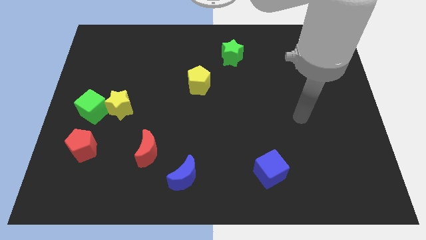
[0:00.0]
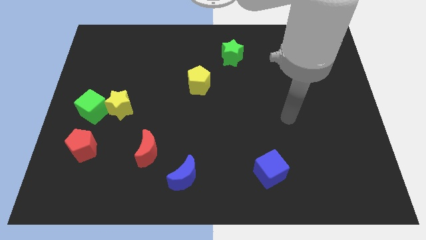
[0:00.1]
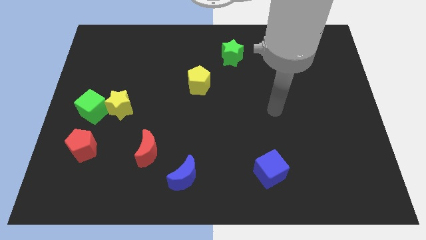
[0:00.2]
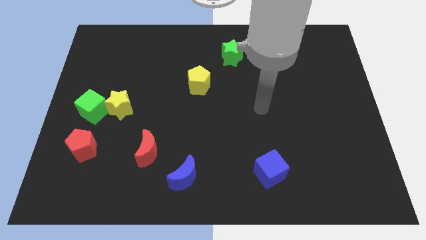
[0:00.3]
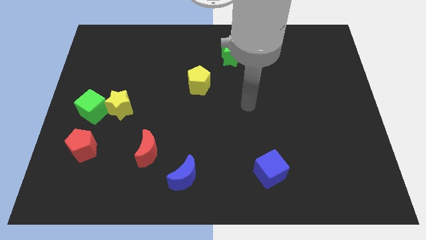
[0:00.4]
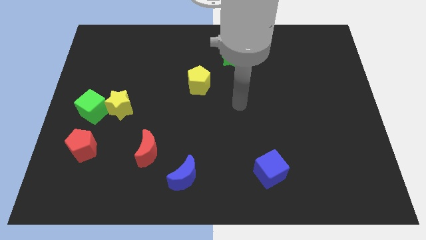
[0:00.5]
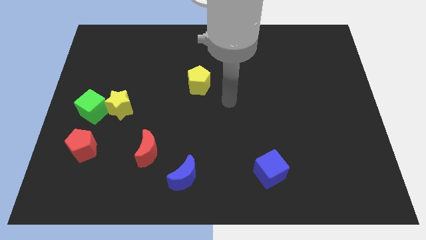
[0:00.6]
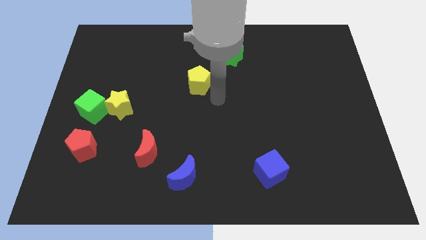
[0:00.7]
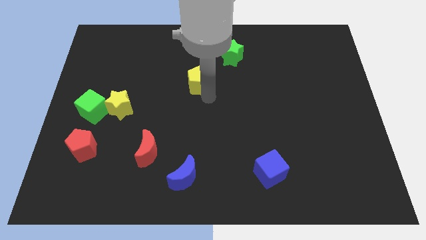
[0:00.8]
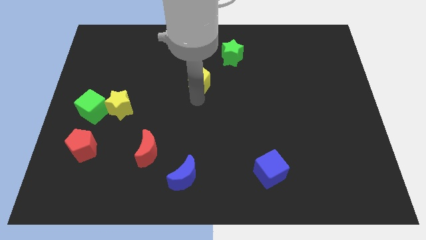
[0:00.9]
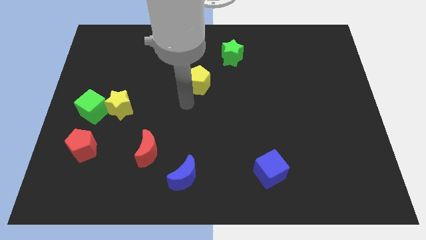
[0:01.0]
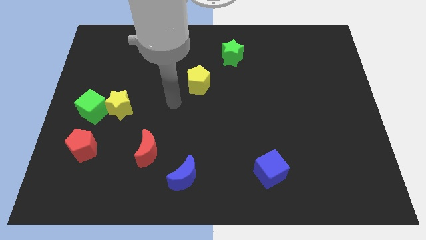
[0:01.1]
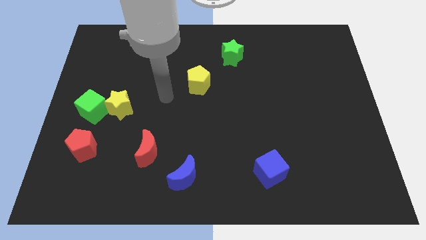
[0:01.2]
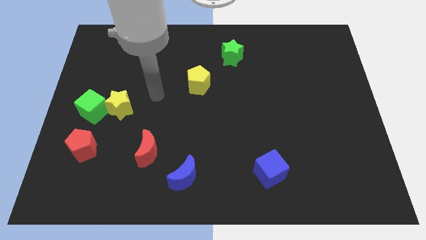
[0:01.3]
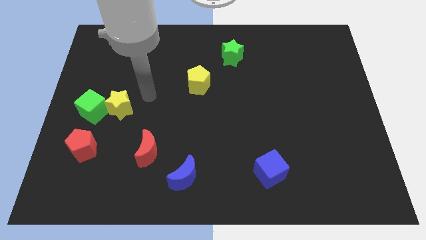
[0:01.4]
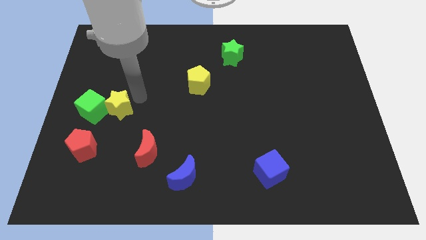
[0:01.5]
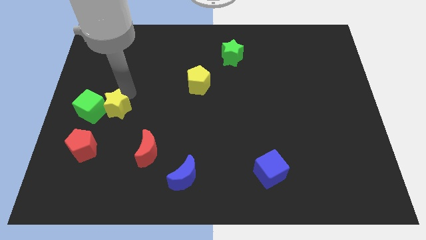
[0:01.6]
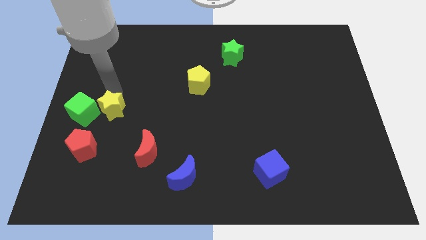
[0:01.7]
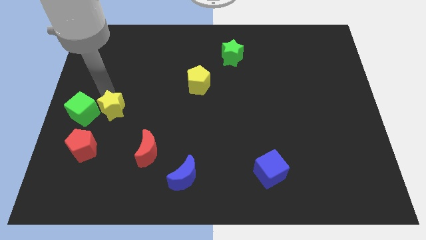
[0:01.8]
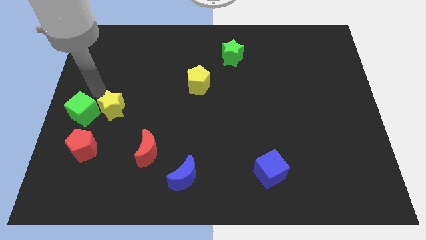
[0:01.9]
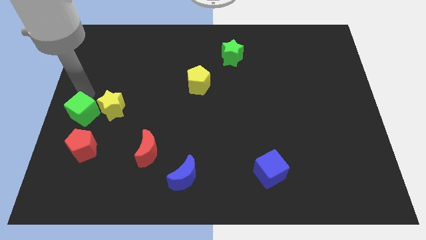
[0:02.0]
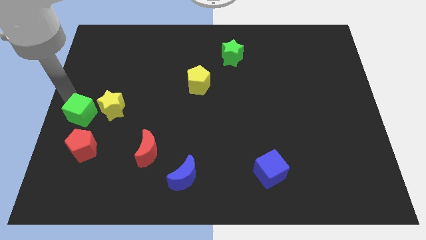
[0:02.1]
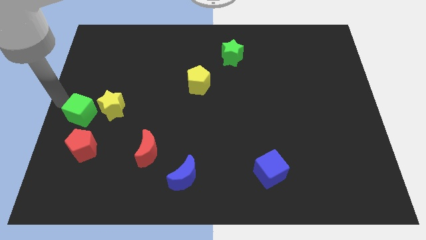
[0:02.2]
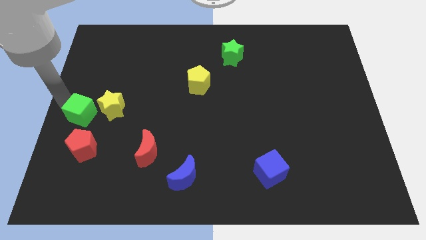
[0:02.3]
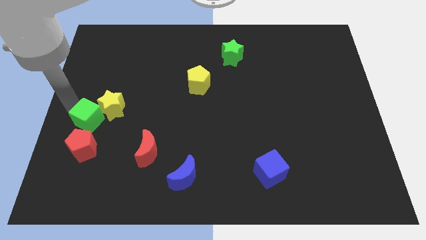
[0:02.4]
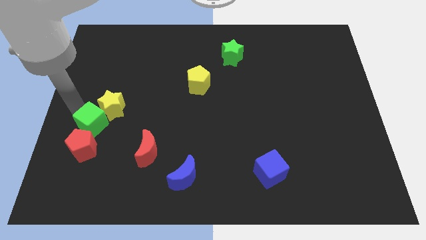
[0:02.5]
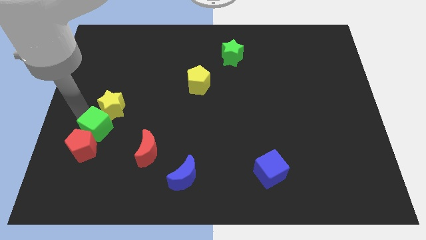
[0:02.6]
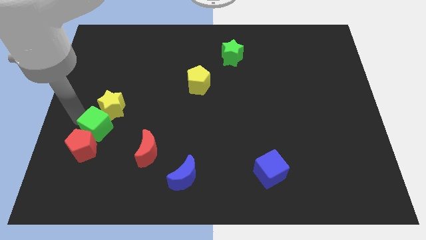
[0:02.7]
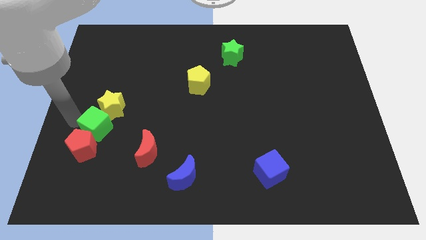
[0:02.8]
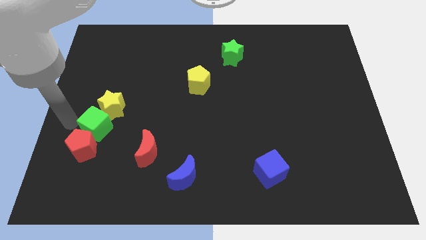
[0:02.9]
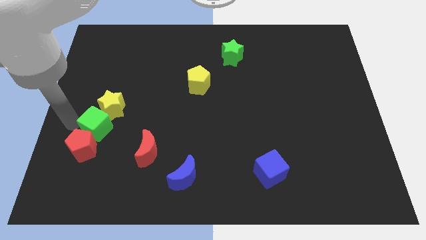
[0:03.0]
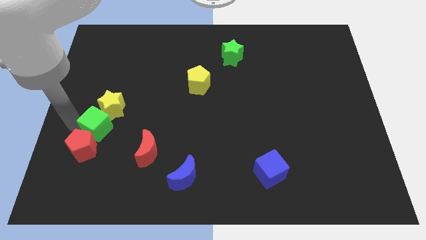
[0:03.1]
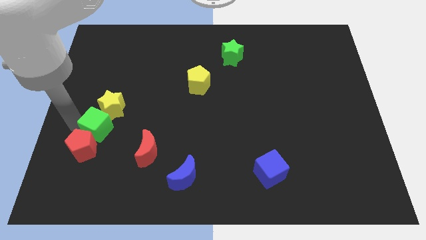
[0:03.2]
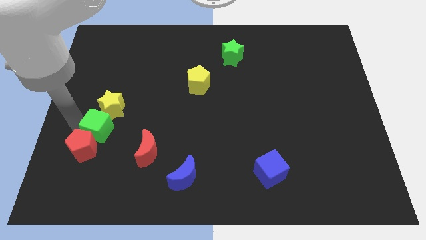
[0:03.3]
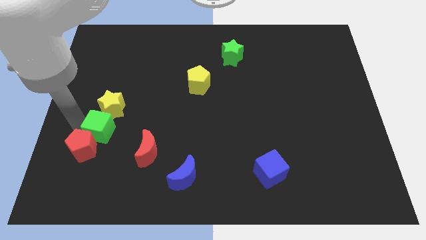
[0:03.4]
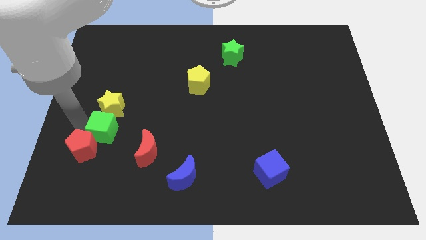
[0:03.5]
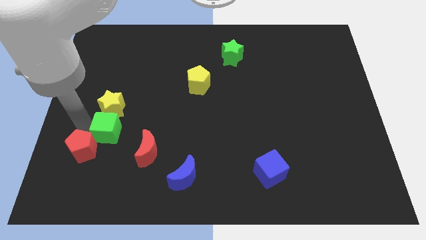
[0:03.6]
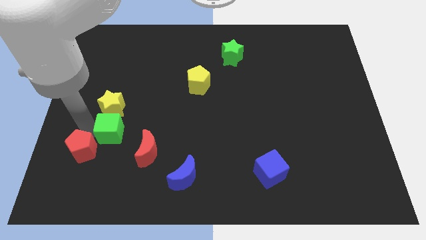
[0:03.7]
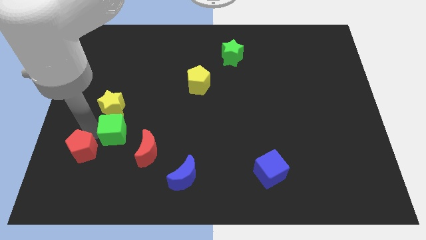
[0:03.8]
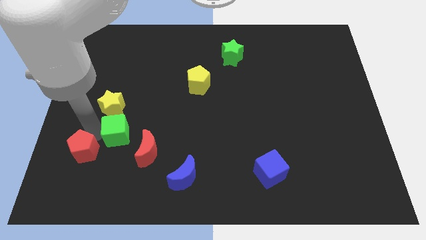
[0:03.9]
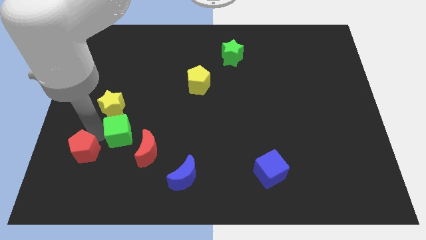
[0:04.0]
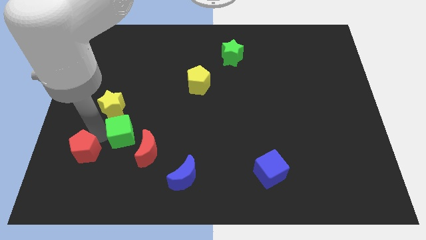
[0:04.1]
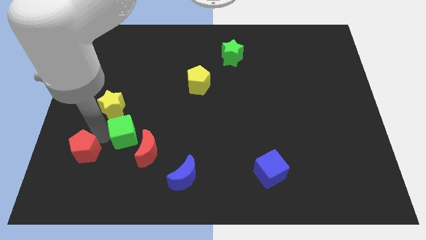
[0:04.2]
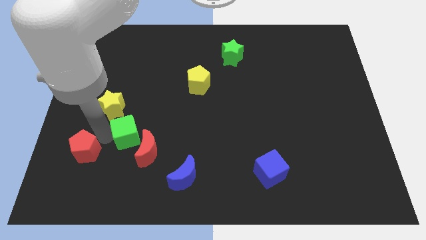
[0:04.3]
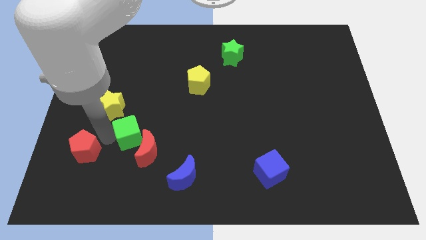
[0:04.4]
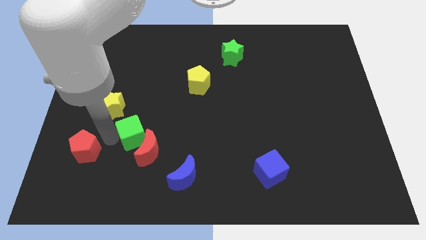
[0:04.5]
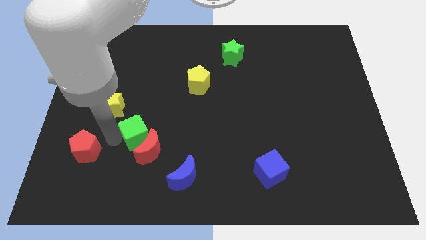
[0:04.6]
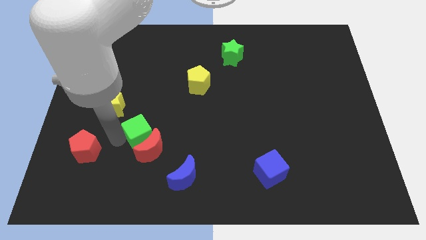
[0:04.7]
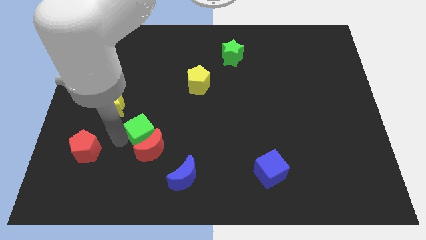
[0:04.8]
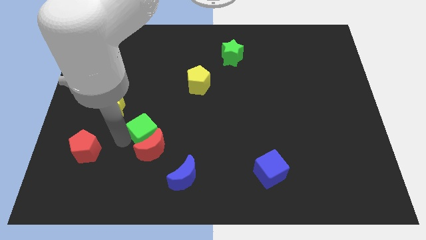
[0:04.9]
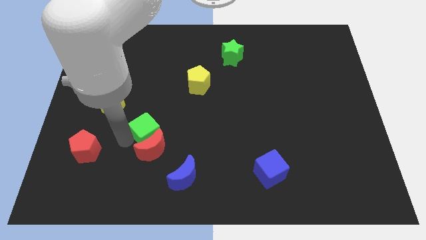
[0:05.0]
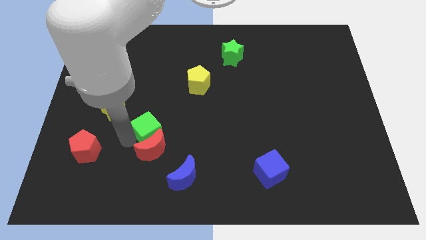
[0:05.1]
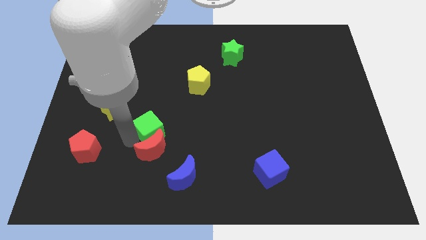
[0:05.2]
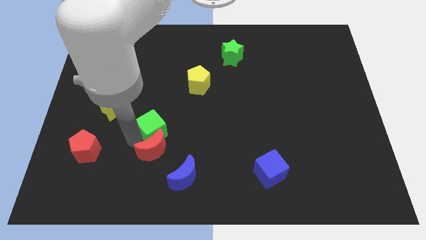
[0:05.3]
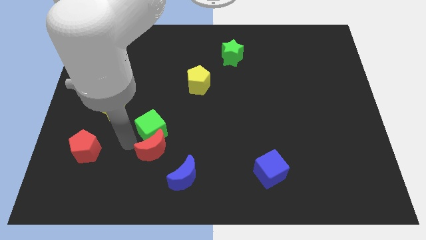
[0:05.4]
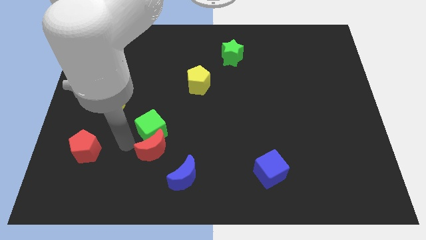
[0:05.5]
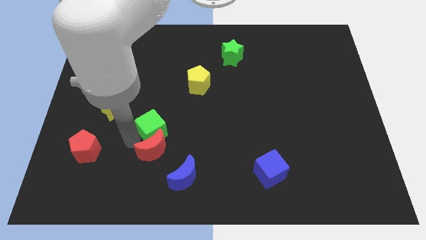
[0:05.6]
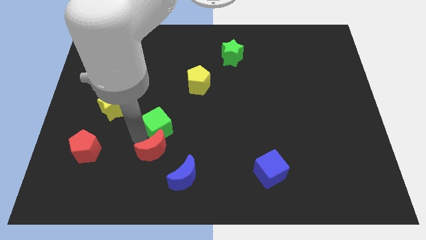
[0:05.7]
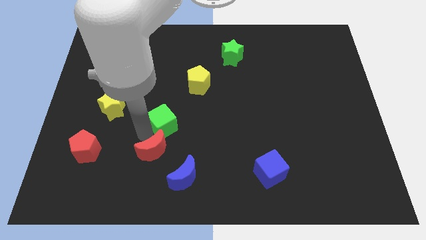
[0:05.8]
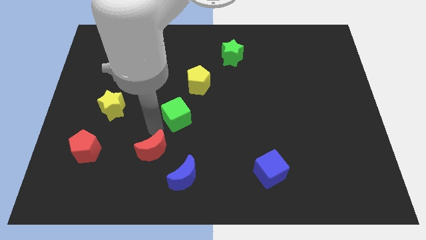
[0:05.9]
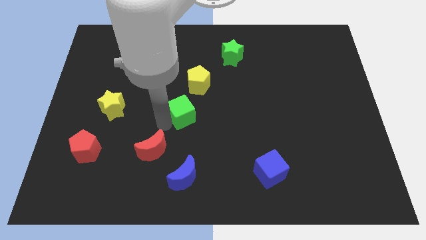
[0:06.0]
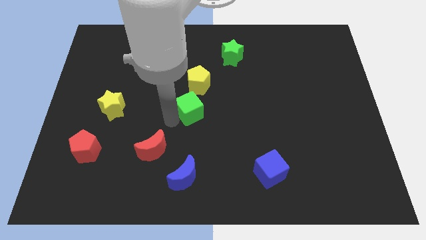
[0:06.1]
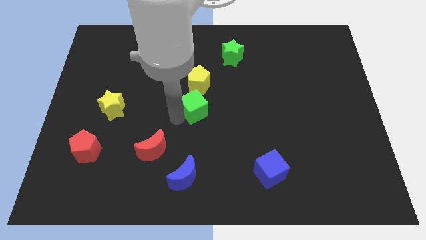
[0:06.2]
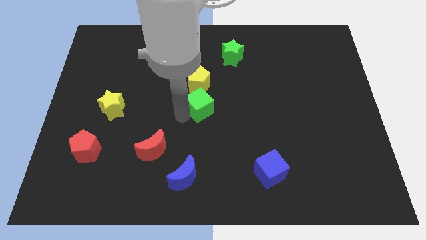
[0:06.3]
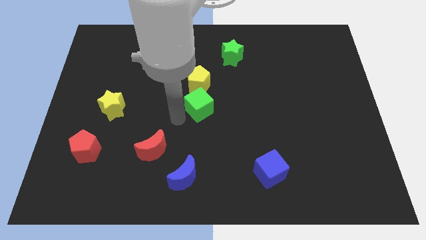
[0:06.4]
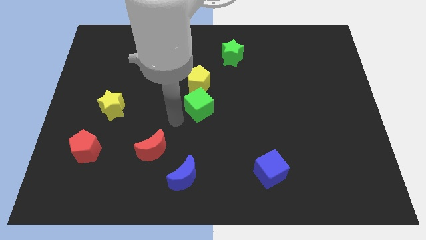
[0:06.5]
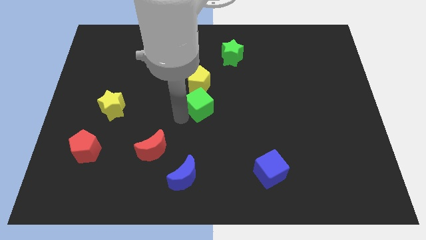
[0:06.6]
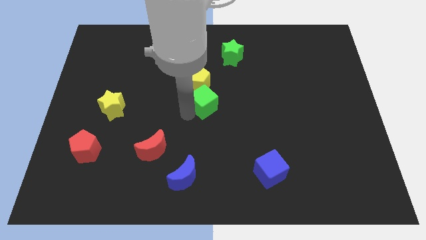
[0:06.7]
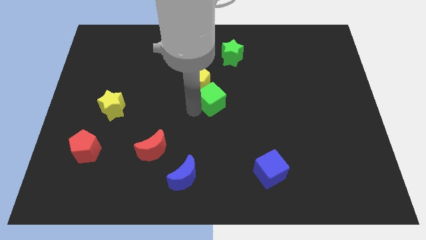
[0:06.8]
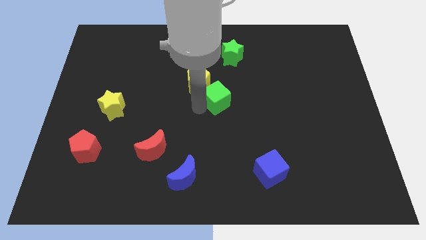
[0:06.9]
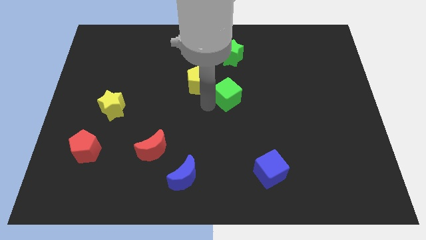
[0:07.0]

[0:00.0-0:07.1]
put the green cube right of the yellow pentagon
